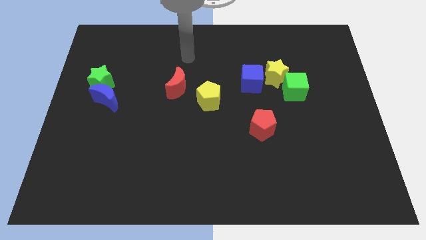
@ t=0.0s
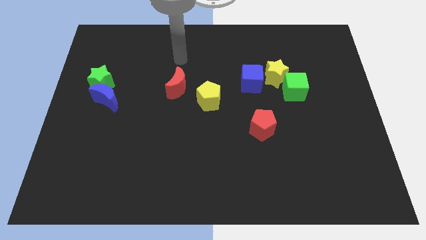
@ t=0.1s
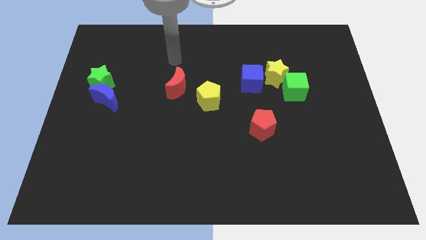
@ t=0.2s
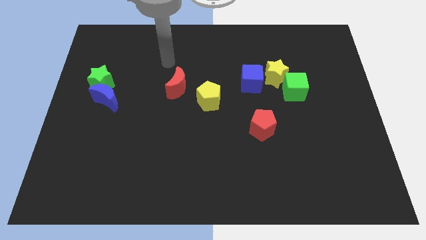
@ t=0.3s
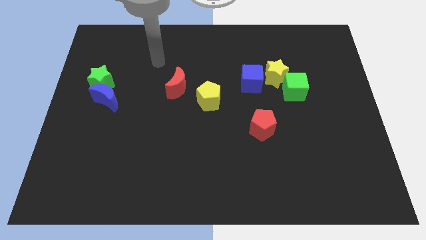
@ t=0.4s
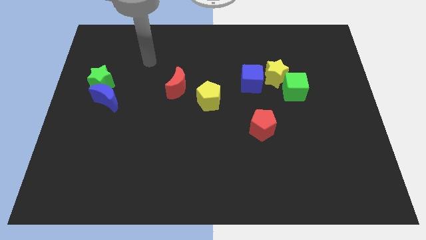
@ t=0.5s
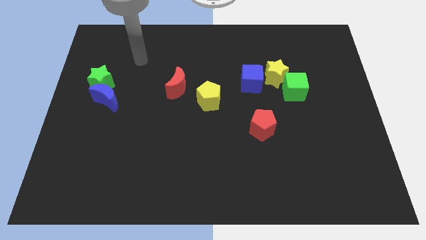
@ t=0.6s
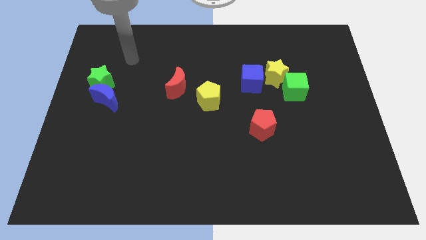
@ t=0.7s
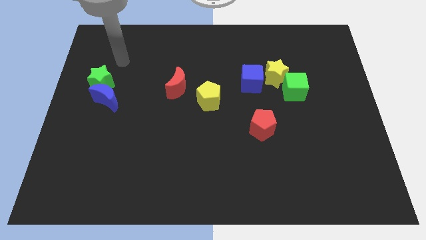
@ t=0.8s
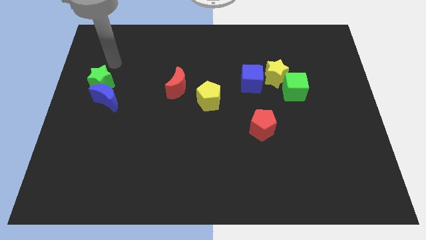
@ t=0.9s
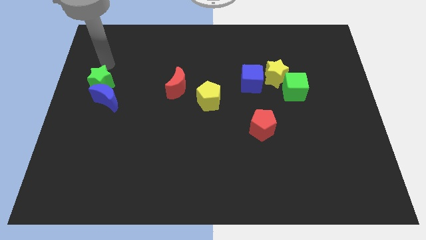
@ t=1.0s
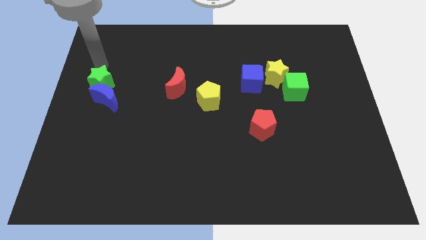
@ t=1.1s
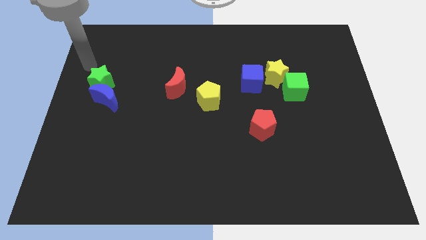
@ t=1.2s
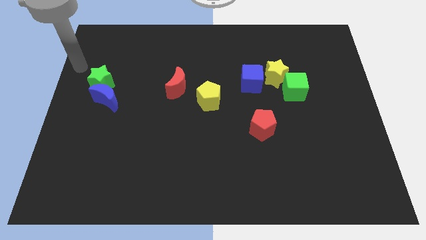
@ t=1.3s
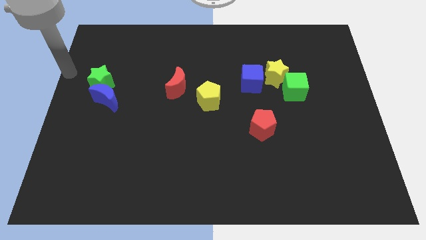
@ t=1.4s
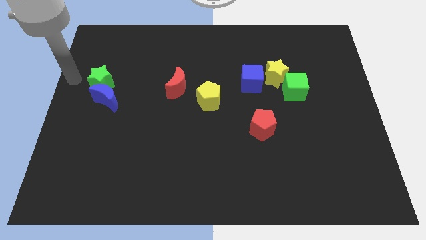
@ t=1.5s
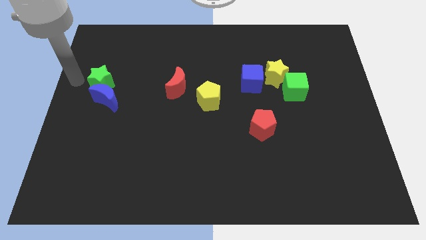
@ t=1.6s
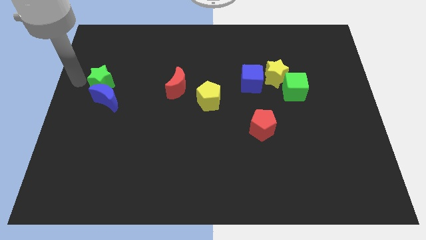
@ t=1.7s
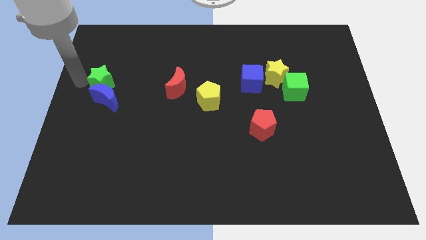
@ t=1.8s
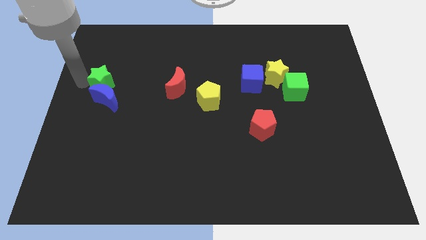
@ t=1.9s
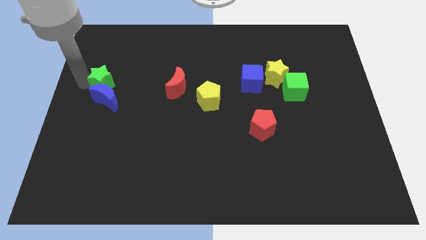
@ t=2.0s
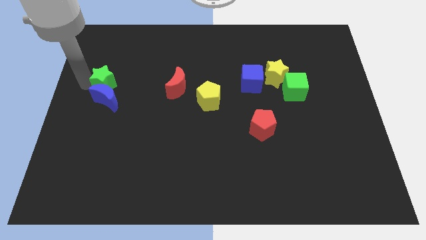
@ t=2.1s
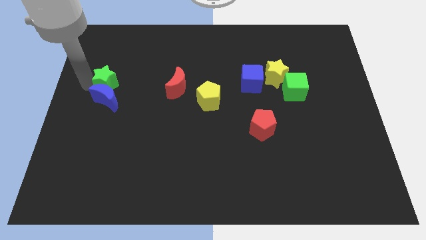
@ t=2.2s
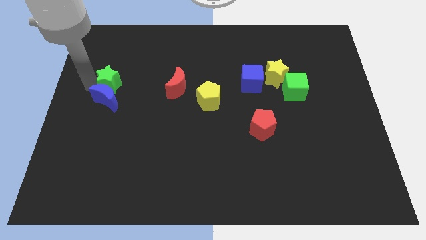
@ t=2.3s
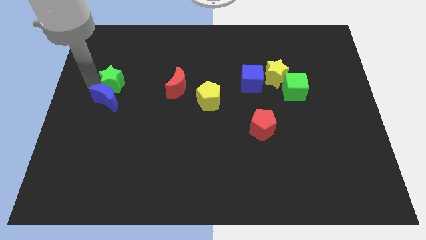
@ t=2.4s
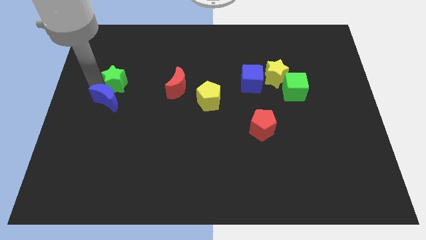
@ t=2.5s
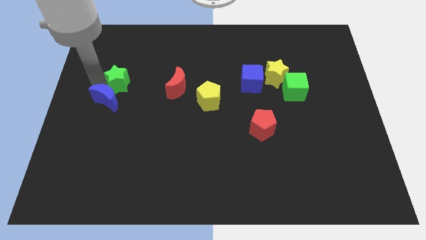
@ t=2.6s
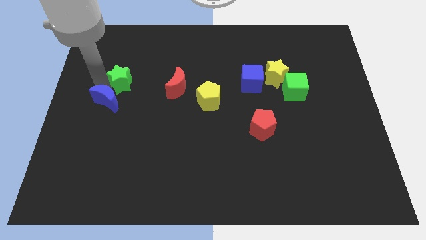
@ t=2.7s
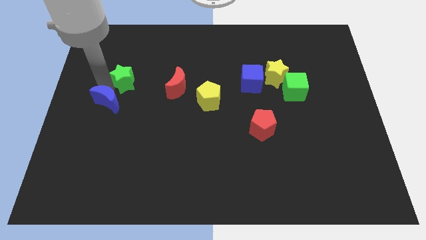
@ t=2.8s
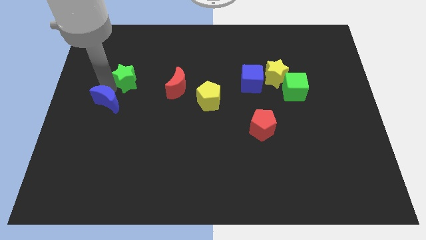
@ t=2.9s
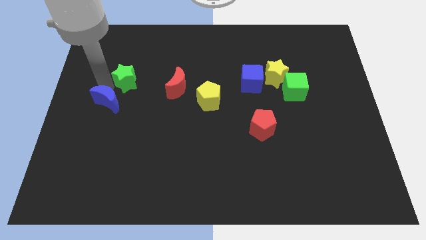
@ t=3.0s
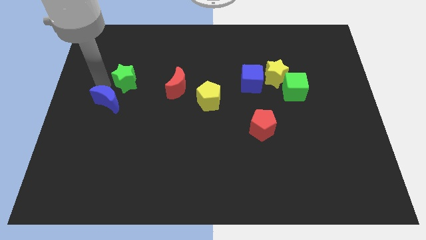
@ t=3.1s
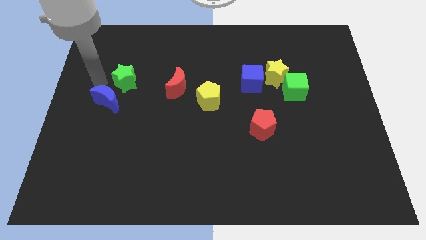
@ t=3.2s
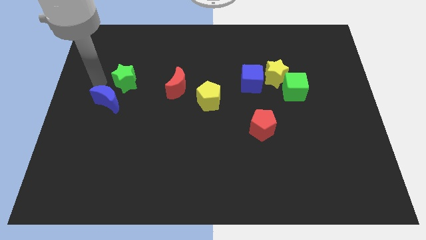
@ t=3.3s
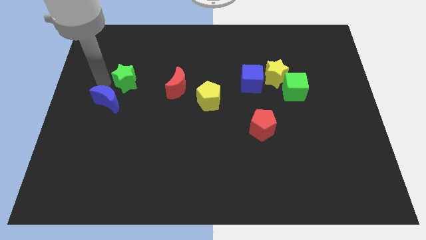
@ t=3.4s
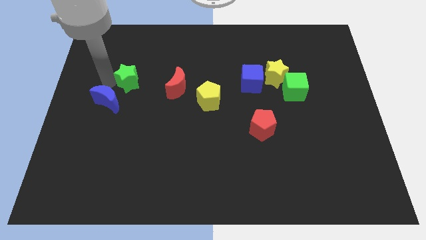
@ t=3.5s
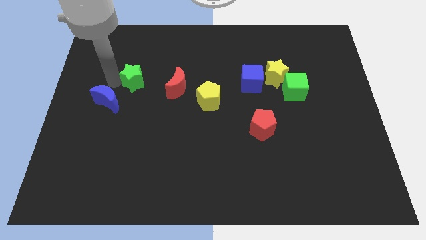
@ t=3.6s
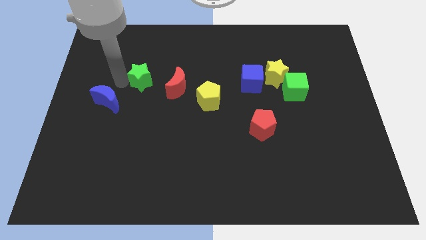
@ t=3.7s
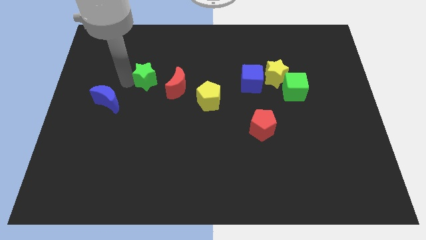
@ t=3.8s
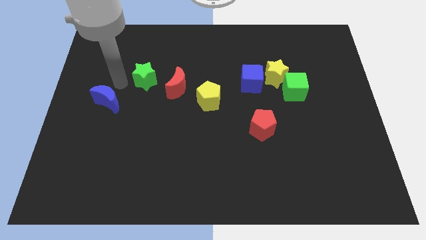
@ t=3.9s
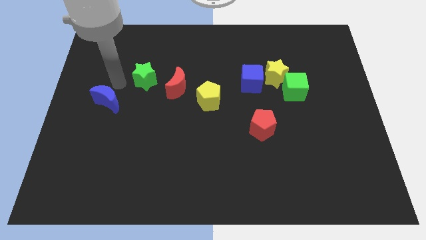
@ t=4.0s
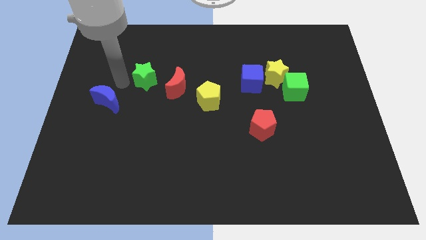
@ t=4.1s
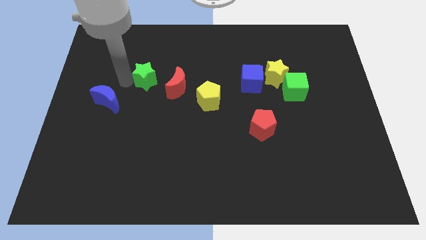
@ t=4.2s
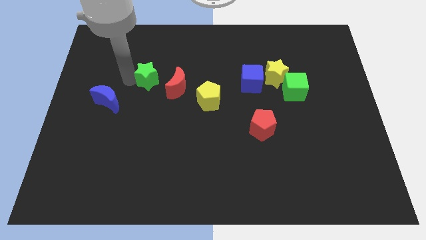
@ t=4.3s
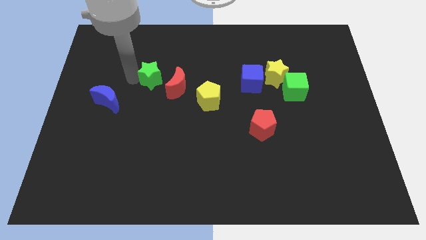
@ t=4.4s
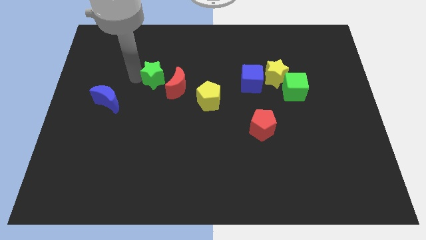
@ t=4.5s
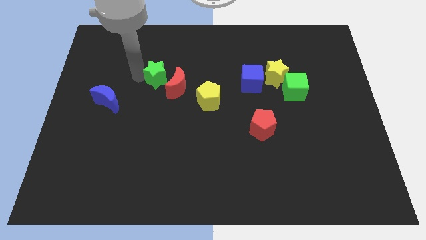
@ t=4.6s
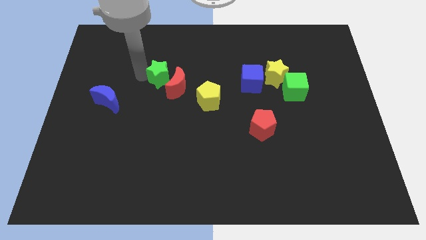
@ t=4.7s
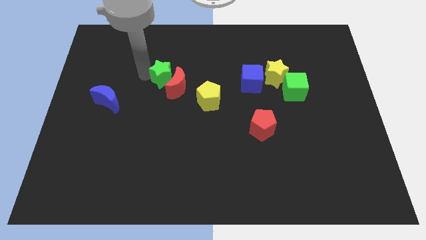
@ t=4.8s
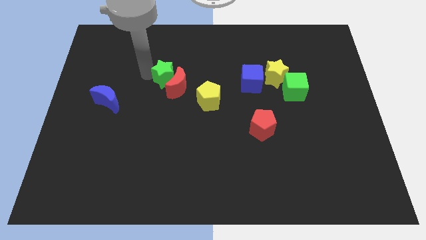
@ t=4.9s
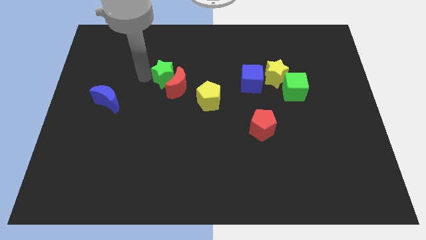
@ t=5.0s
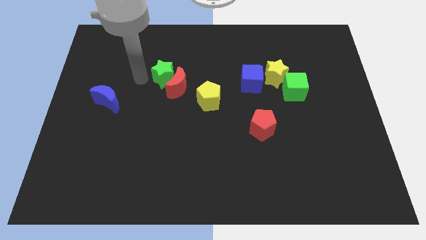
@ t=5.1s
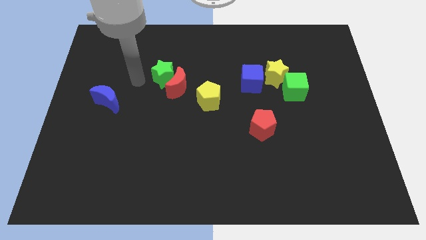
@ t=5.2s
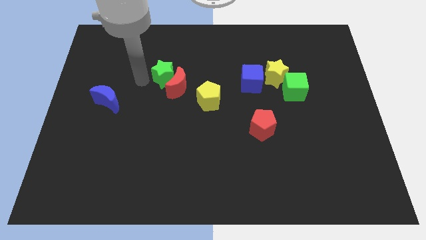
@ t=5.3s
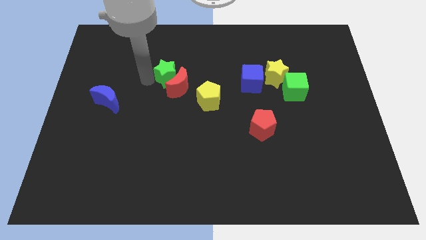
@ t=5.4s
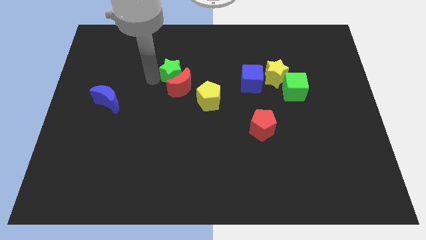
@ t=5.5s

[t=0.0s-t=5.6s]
move the green star diagonally up and to the left of the yellow pentagon

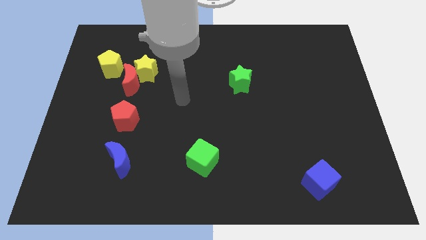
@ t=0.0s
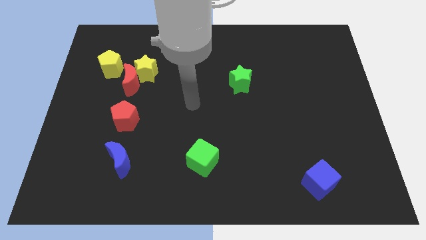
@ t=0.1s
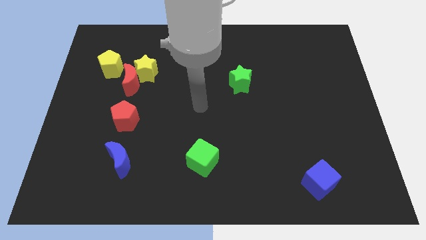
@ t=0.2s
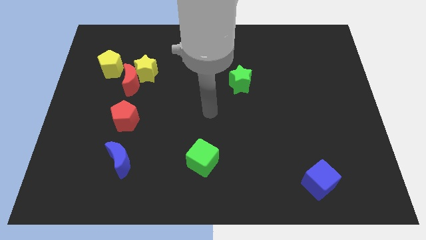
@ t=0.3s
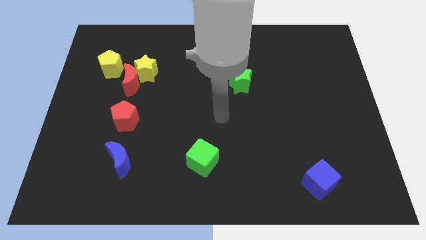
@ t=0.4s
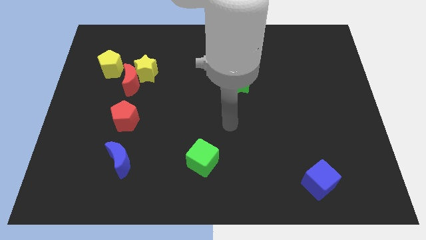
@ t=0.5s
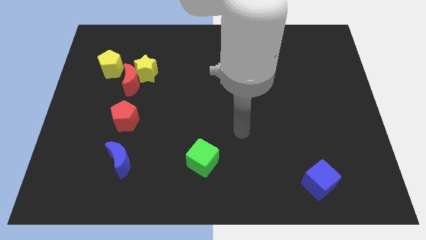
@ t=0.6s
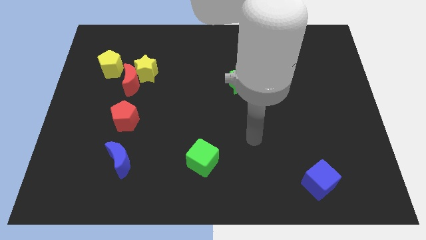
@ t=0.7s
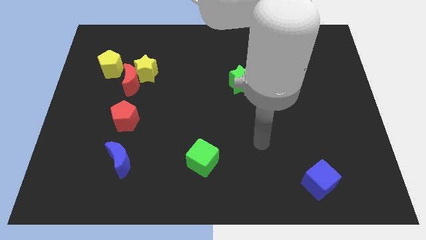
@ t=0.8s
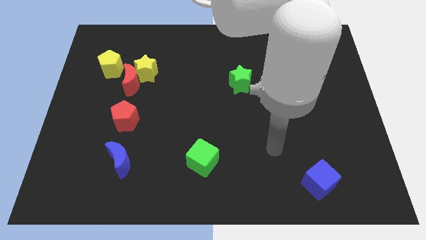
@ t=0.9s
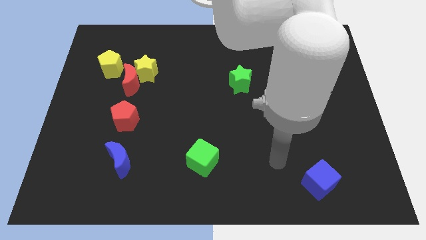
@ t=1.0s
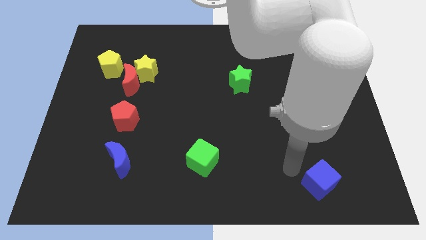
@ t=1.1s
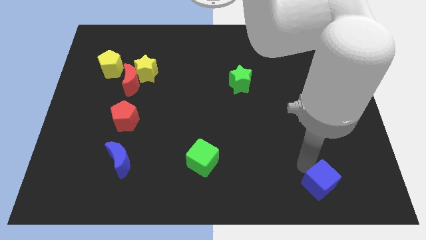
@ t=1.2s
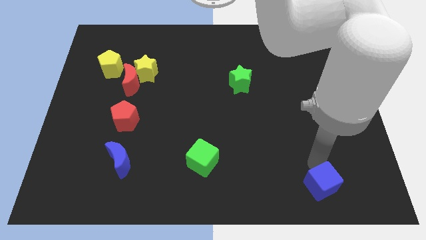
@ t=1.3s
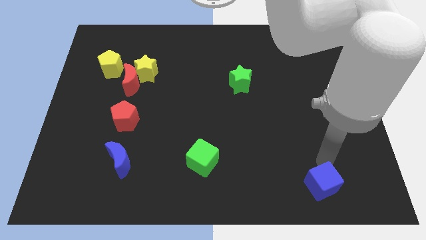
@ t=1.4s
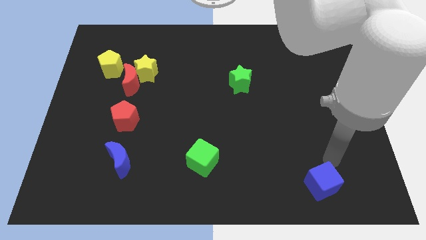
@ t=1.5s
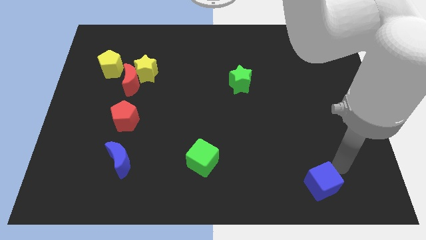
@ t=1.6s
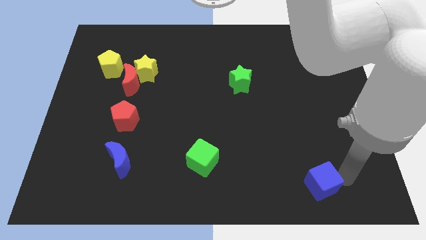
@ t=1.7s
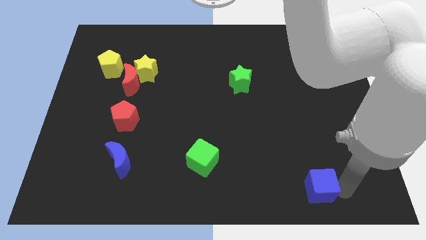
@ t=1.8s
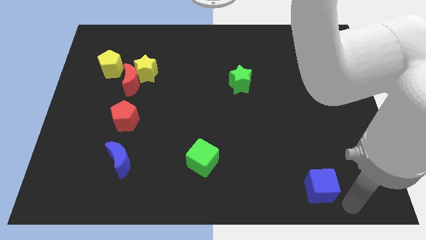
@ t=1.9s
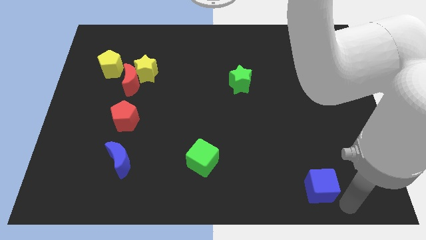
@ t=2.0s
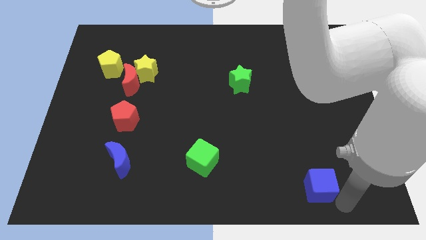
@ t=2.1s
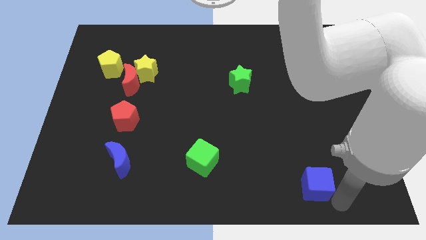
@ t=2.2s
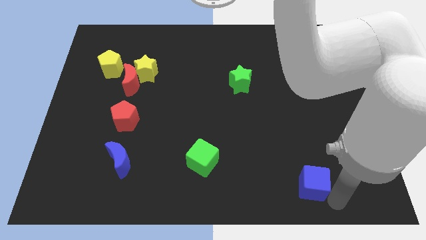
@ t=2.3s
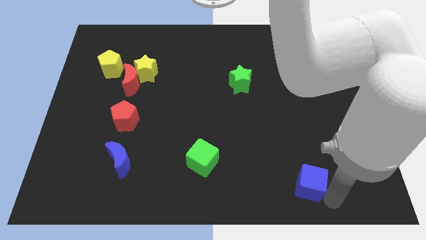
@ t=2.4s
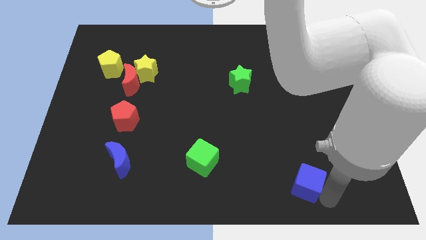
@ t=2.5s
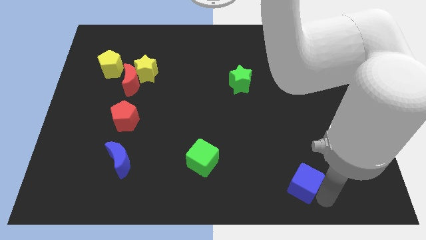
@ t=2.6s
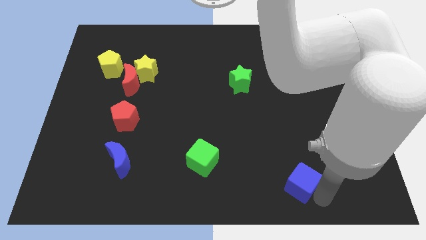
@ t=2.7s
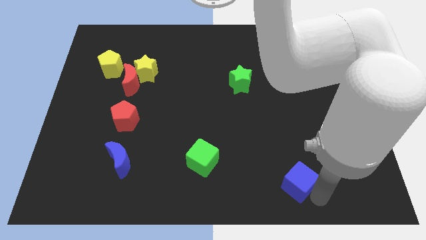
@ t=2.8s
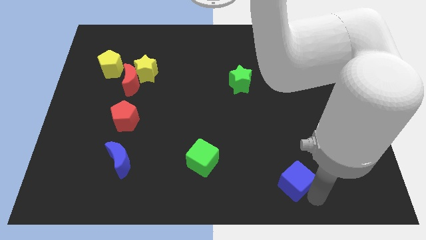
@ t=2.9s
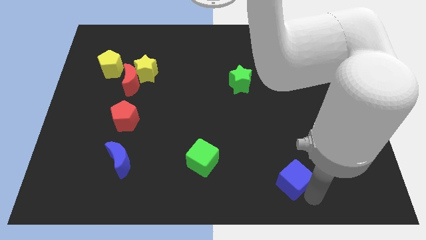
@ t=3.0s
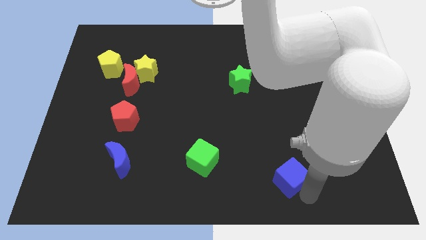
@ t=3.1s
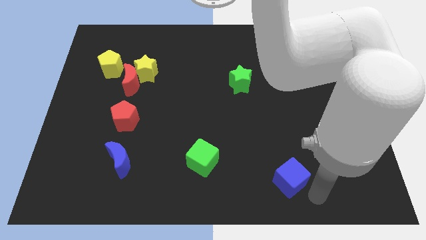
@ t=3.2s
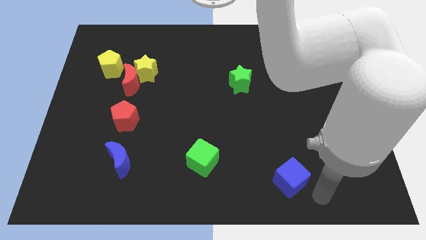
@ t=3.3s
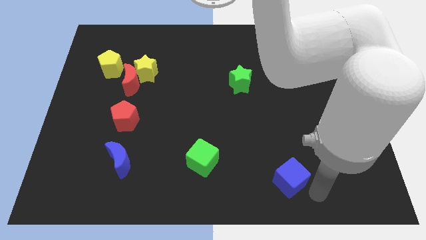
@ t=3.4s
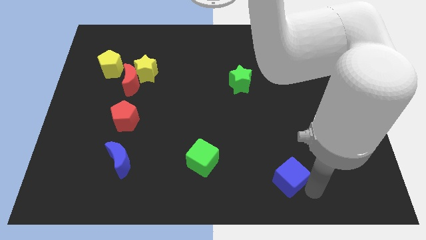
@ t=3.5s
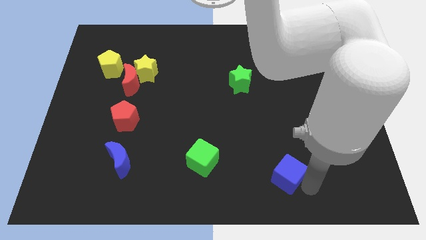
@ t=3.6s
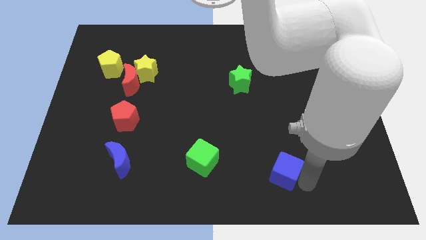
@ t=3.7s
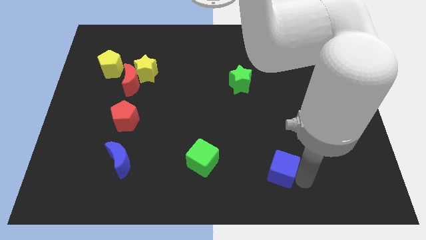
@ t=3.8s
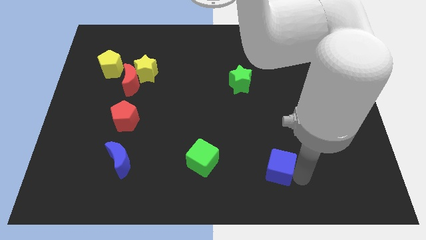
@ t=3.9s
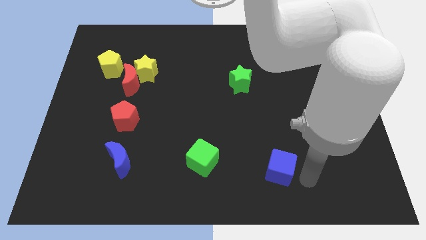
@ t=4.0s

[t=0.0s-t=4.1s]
move the blue cube to the right of the green cube
